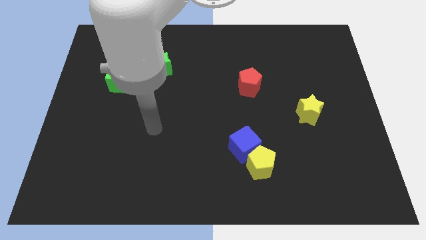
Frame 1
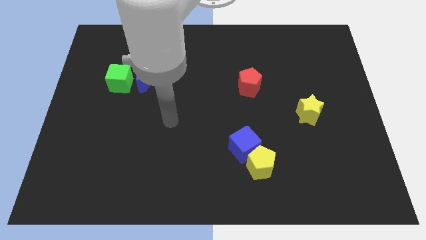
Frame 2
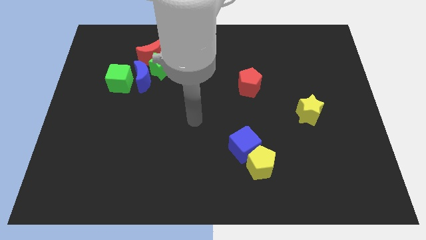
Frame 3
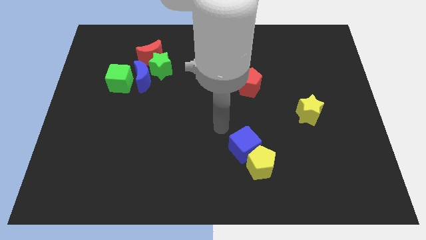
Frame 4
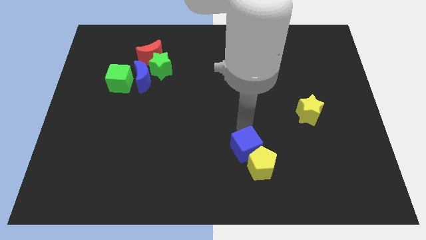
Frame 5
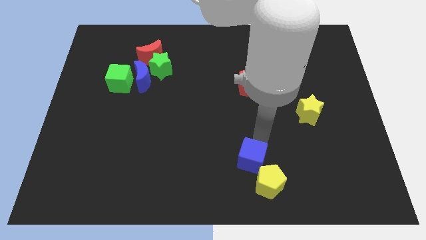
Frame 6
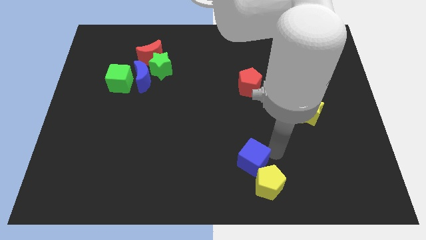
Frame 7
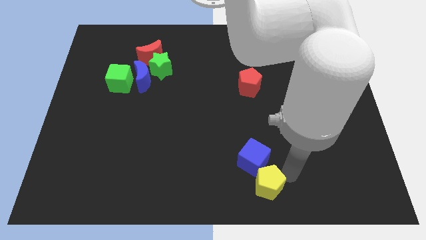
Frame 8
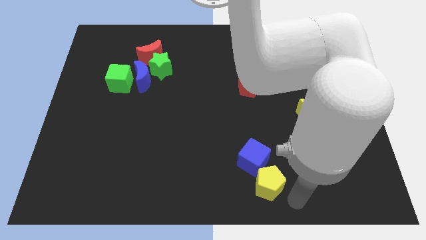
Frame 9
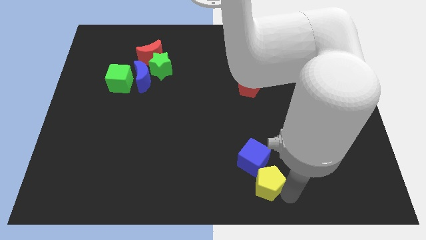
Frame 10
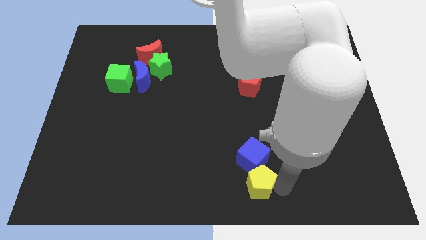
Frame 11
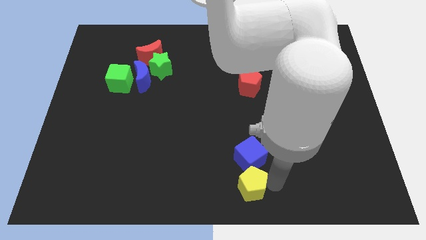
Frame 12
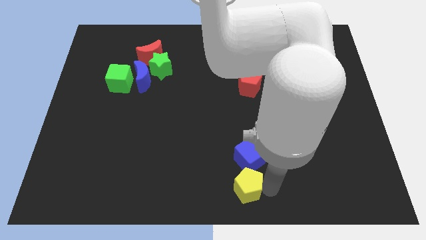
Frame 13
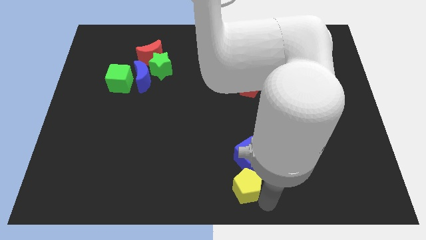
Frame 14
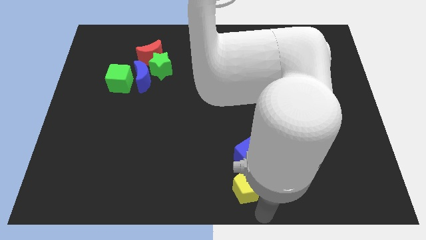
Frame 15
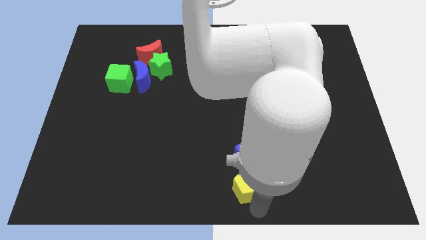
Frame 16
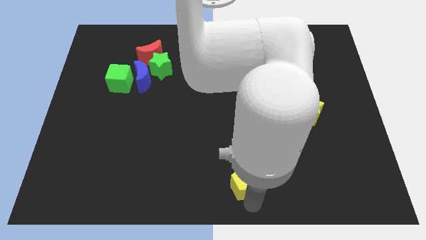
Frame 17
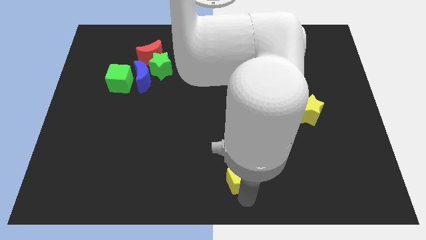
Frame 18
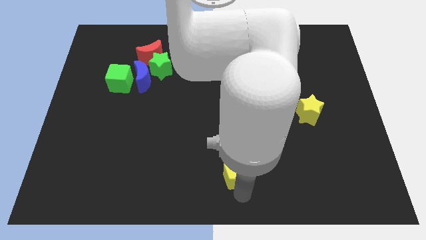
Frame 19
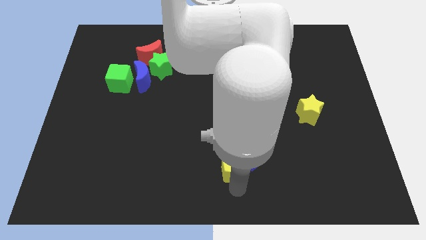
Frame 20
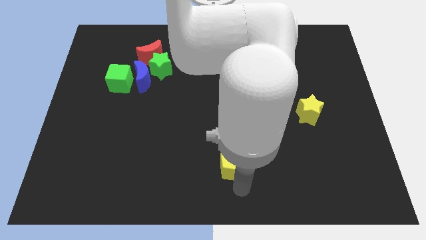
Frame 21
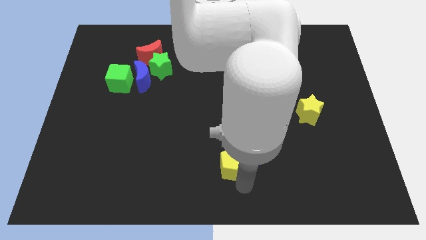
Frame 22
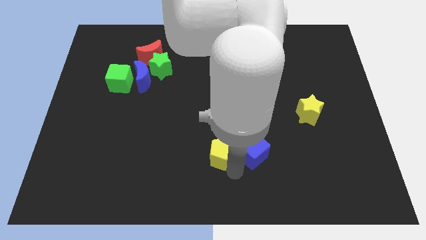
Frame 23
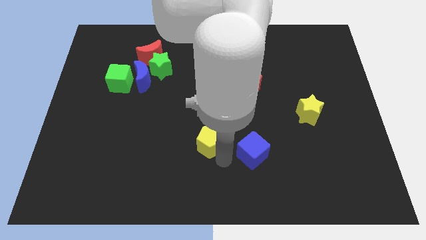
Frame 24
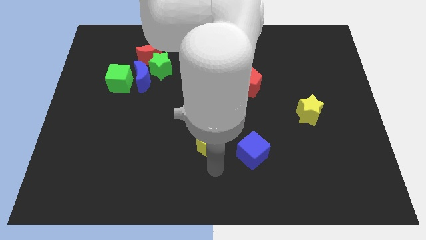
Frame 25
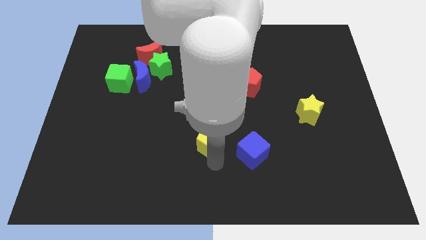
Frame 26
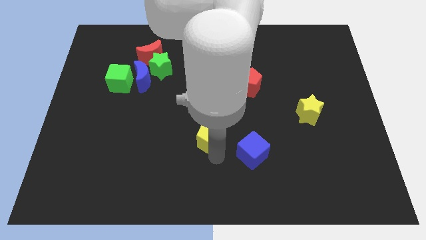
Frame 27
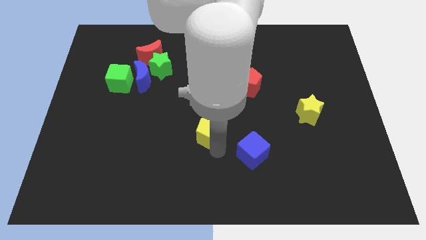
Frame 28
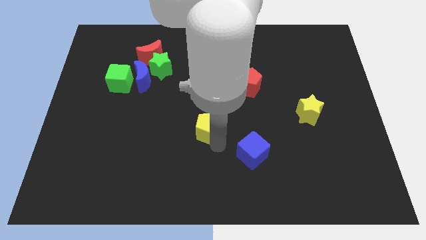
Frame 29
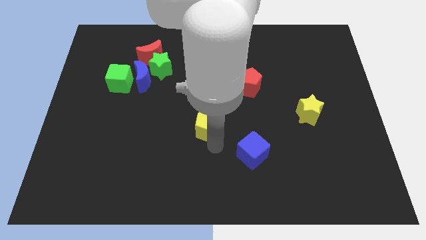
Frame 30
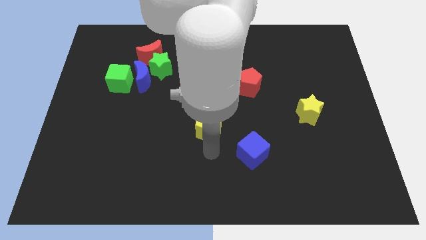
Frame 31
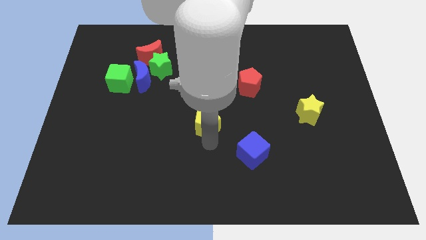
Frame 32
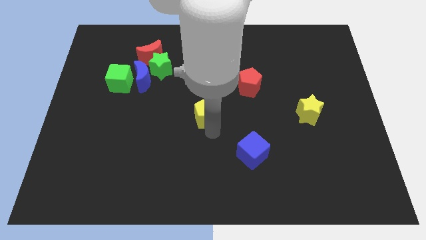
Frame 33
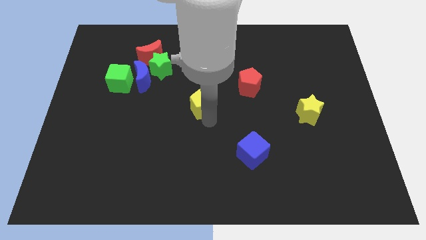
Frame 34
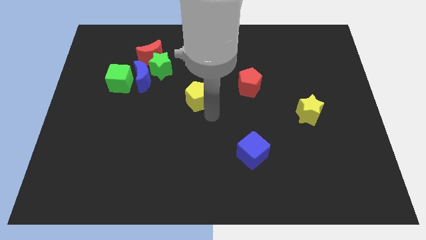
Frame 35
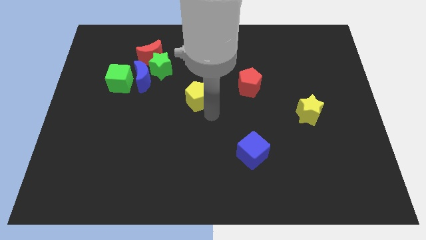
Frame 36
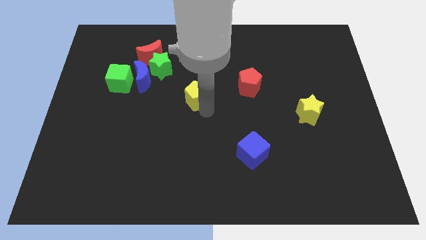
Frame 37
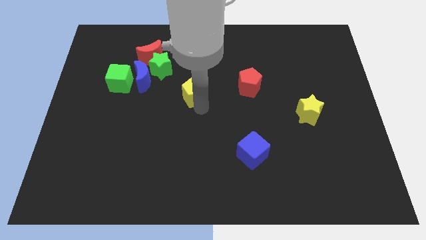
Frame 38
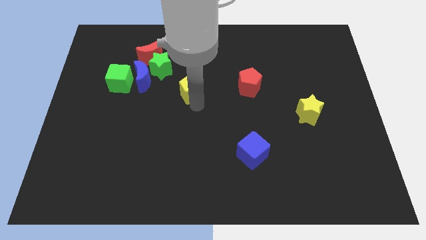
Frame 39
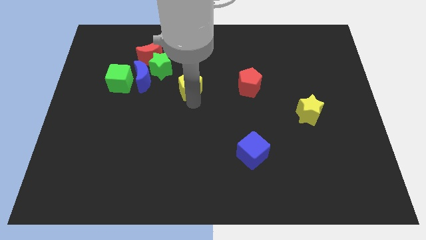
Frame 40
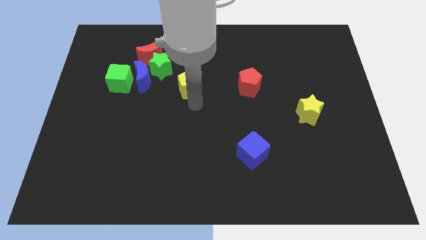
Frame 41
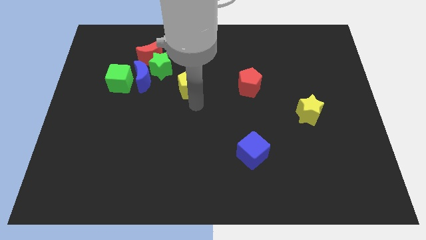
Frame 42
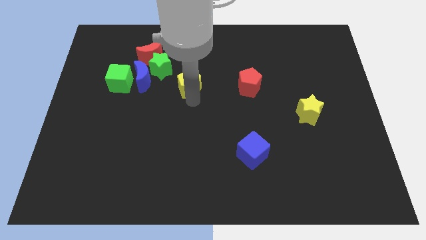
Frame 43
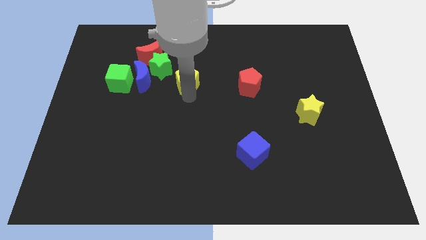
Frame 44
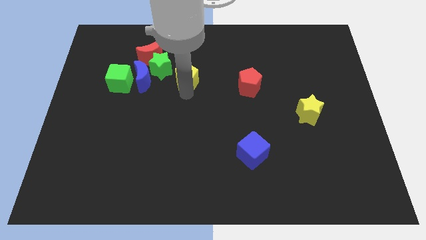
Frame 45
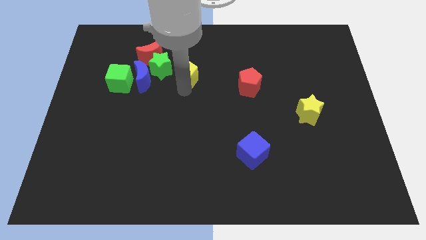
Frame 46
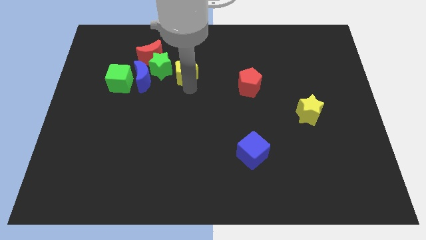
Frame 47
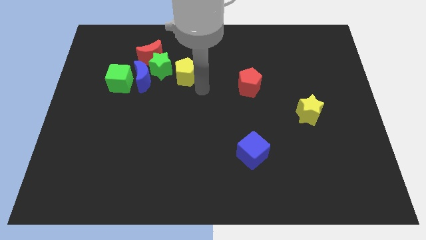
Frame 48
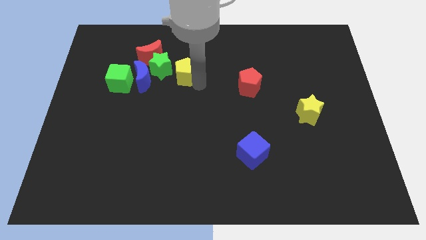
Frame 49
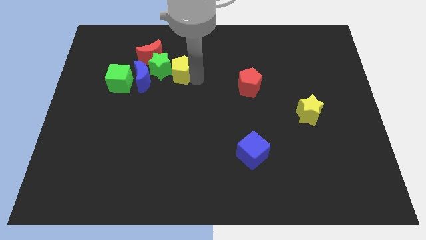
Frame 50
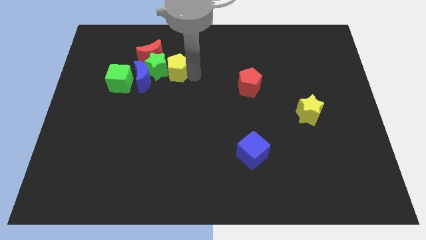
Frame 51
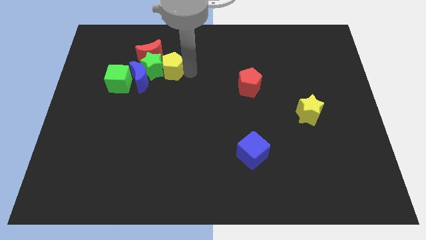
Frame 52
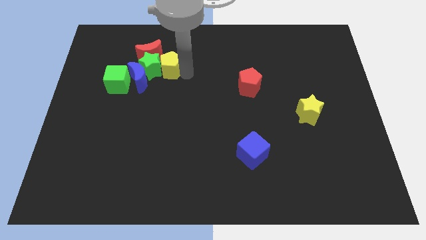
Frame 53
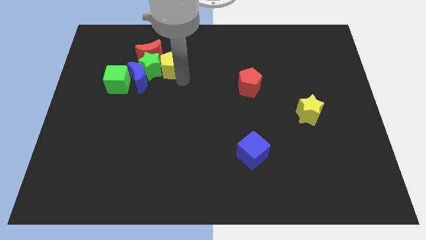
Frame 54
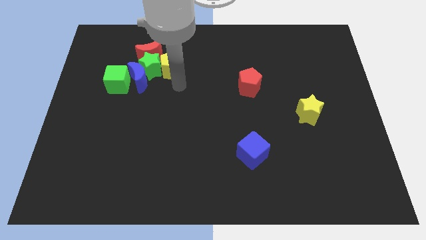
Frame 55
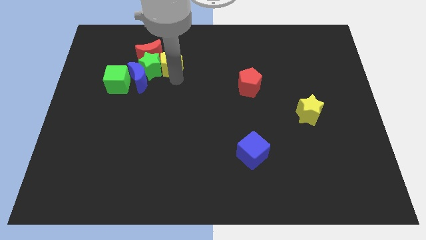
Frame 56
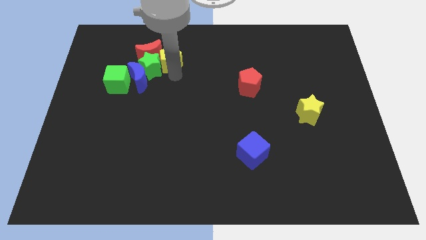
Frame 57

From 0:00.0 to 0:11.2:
slide the yellow pentagon next to the red moon

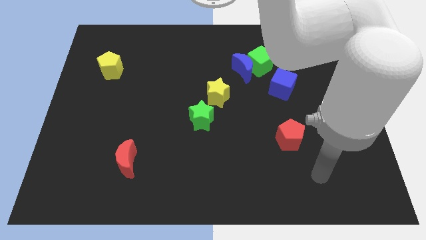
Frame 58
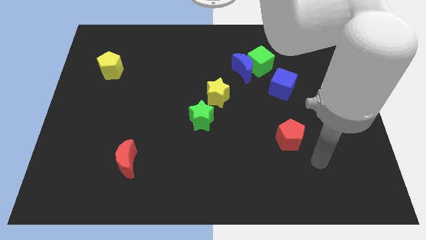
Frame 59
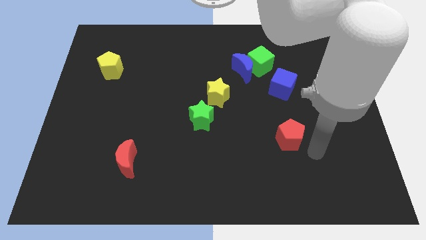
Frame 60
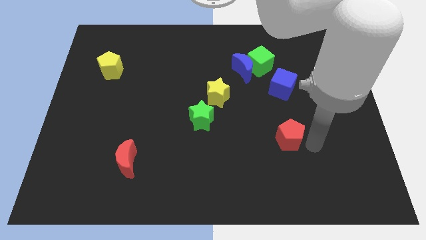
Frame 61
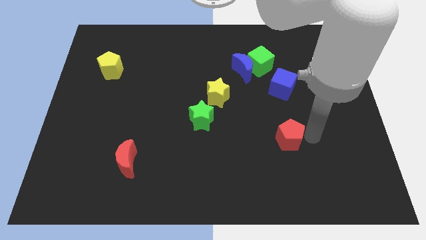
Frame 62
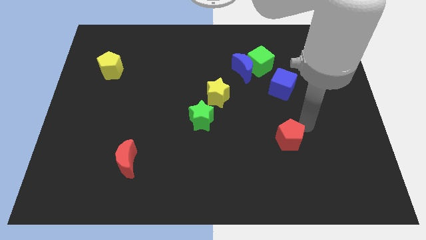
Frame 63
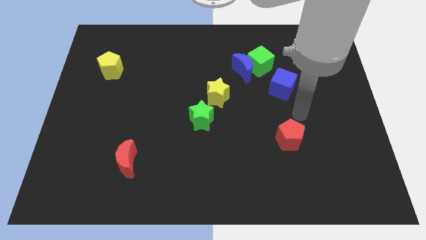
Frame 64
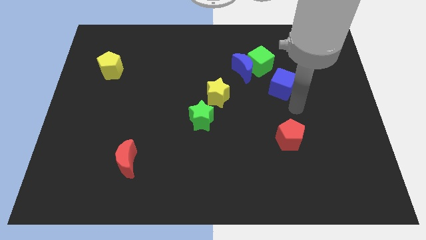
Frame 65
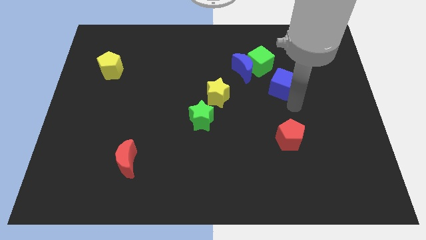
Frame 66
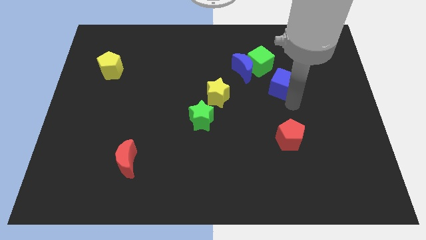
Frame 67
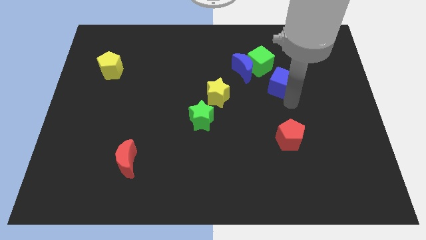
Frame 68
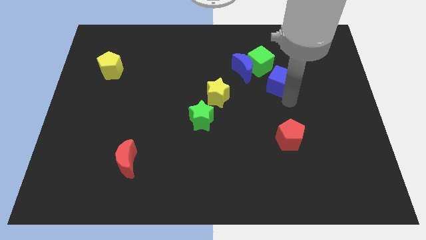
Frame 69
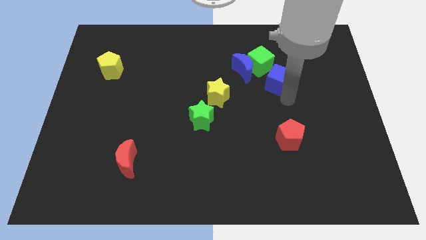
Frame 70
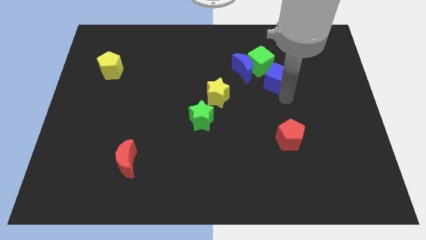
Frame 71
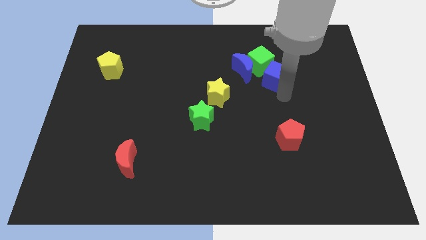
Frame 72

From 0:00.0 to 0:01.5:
slide the blue cube to the green cube
